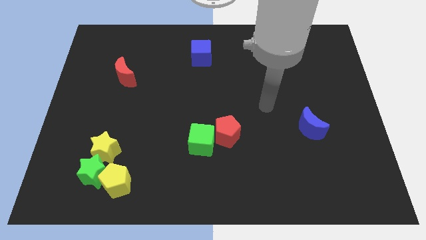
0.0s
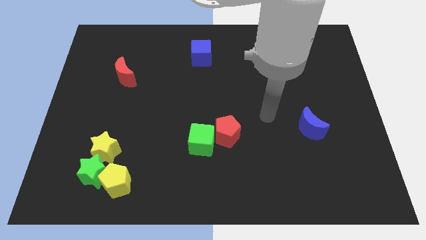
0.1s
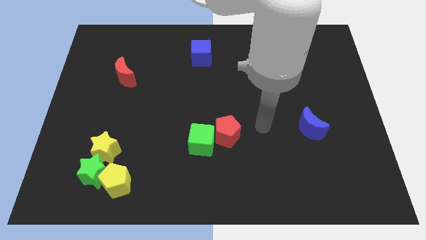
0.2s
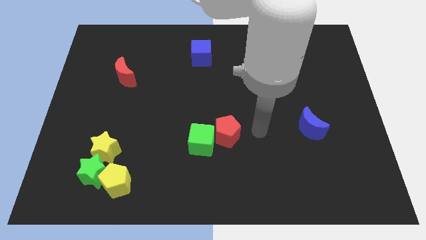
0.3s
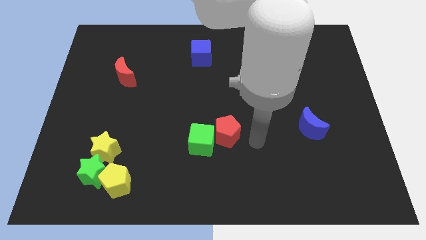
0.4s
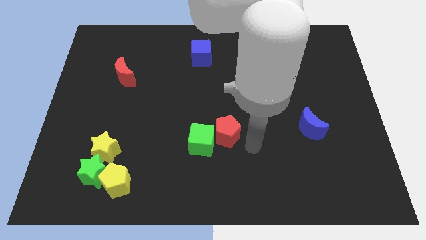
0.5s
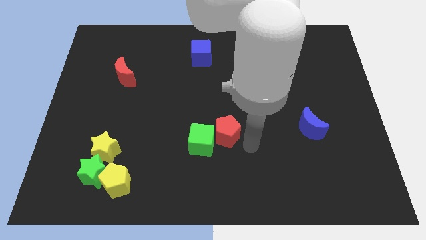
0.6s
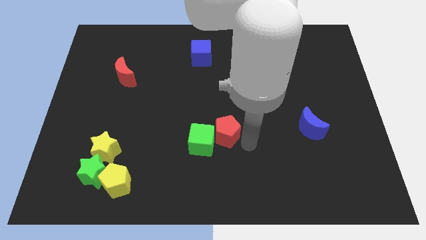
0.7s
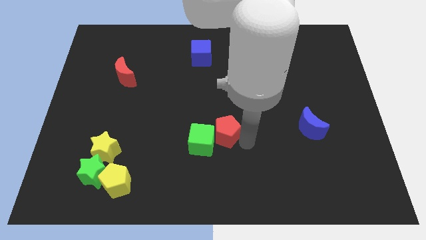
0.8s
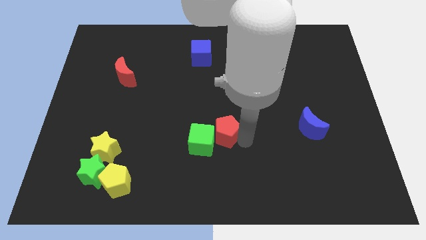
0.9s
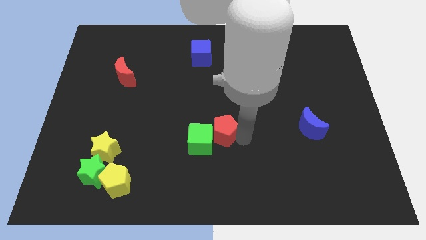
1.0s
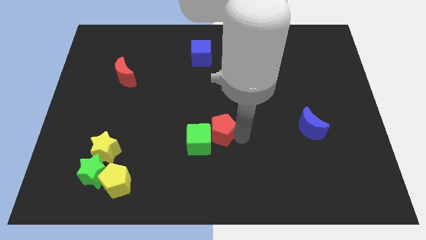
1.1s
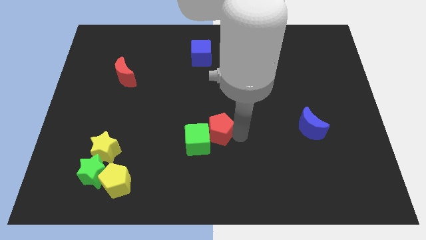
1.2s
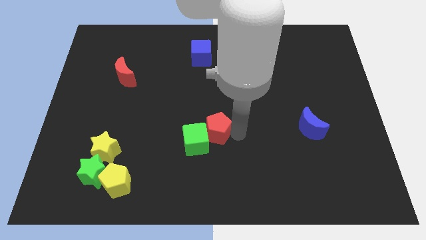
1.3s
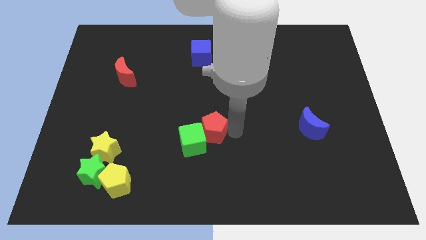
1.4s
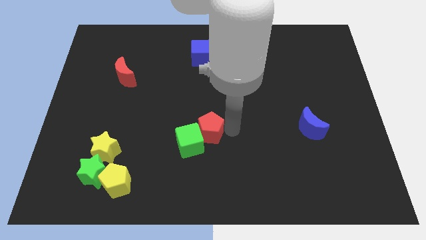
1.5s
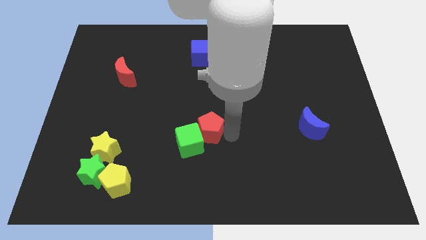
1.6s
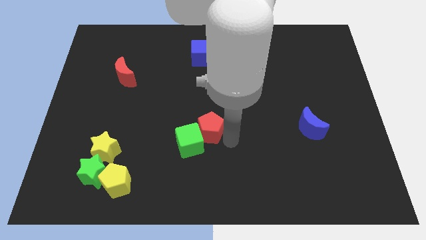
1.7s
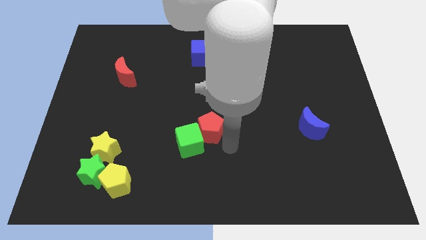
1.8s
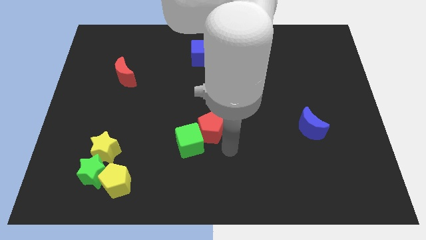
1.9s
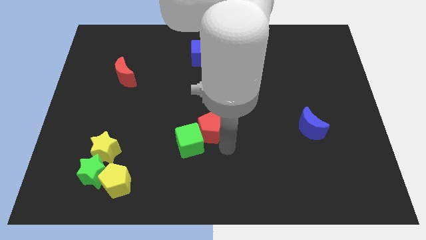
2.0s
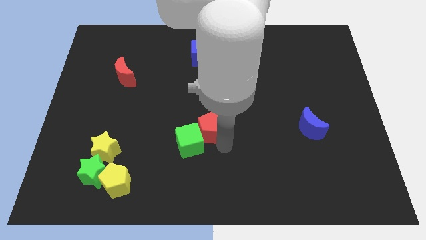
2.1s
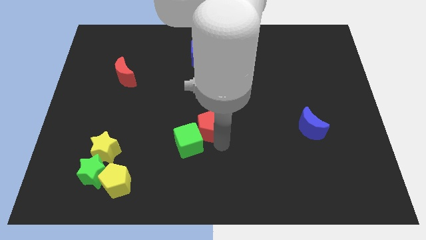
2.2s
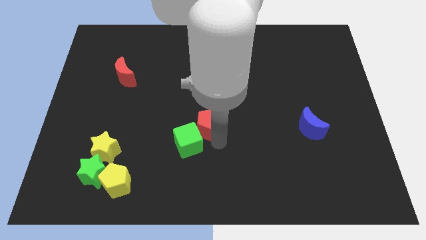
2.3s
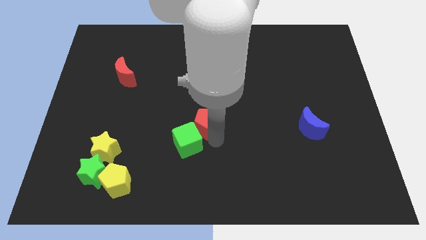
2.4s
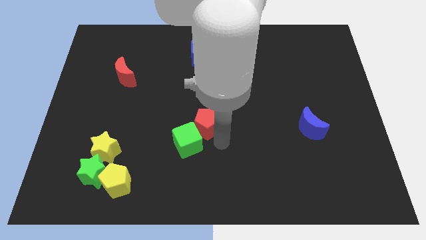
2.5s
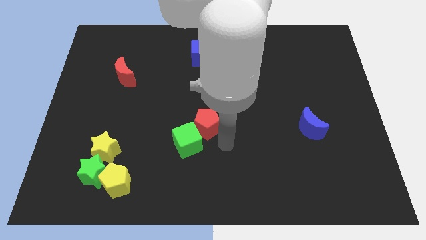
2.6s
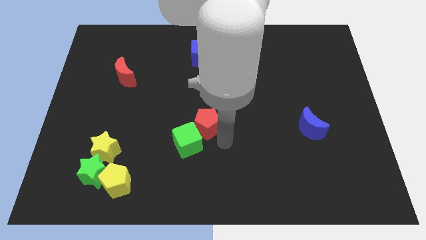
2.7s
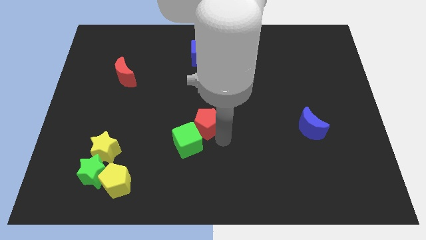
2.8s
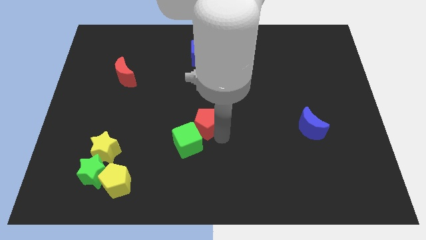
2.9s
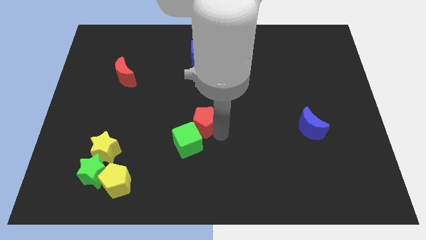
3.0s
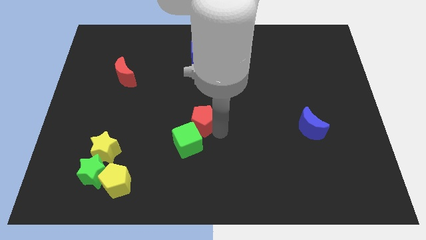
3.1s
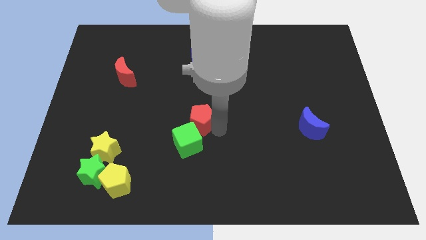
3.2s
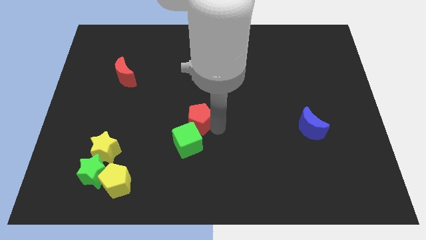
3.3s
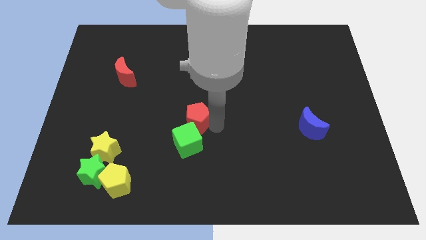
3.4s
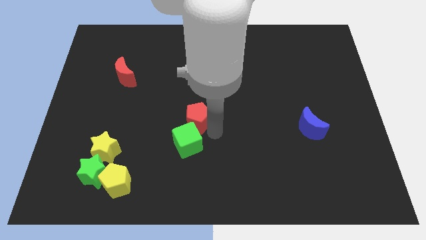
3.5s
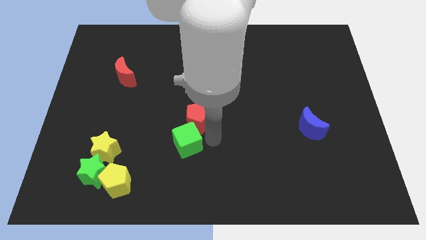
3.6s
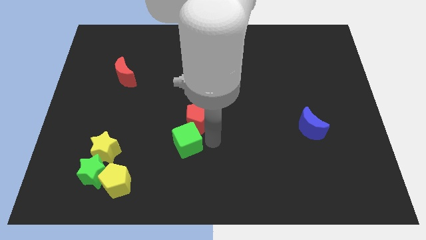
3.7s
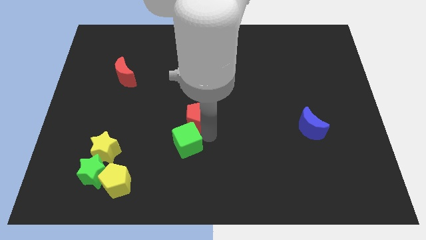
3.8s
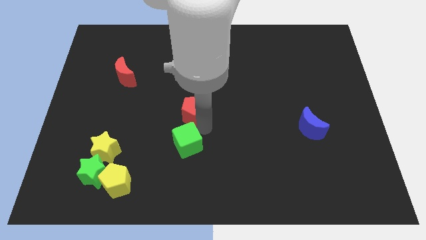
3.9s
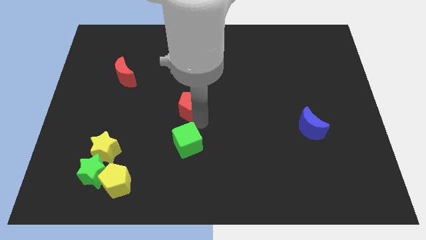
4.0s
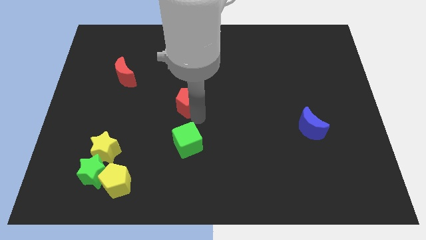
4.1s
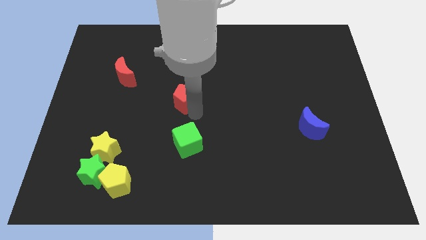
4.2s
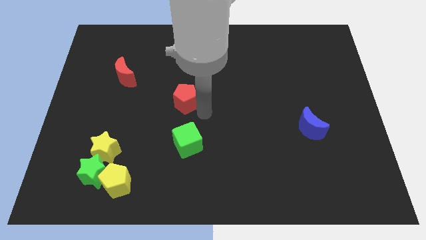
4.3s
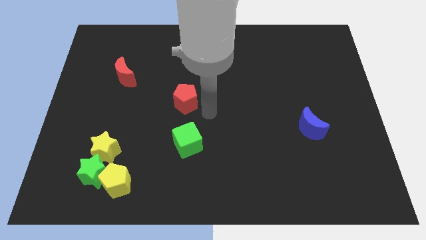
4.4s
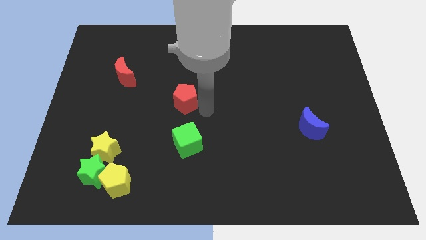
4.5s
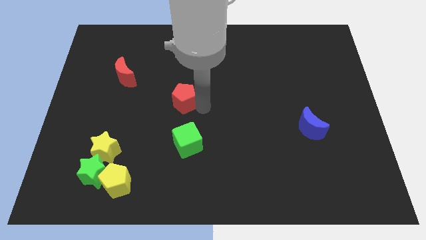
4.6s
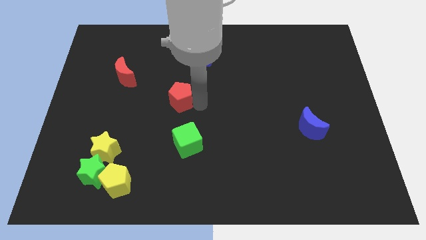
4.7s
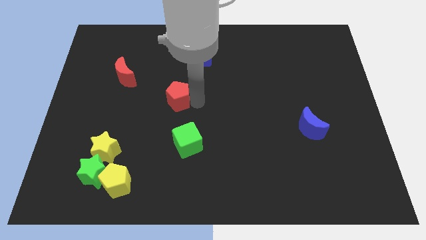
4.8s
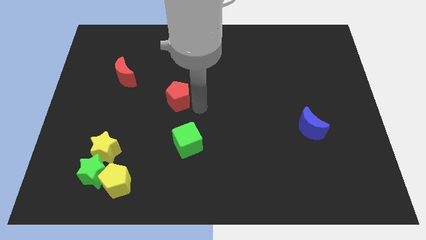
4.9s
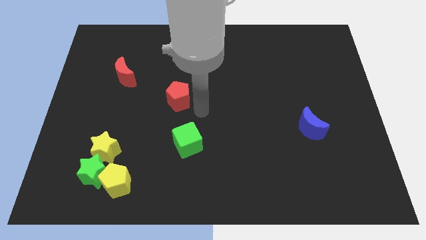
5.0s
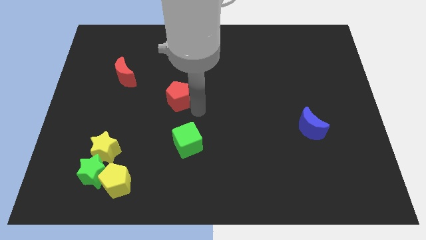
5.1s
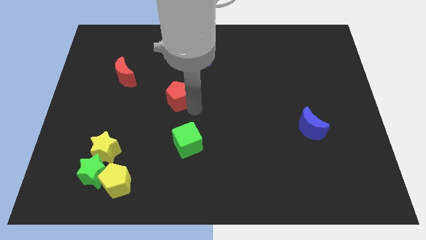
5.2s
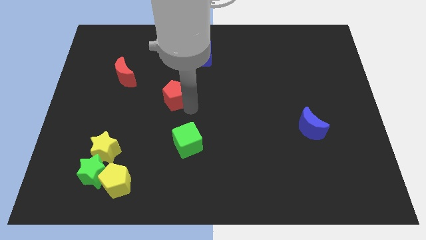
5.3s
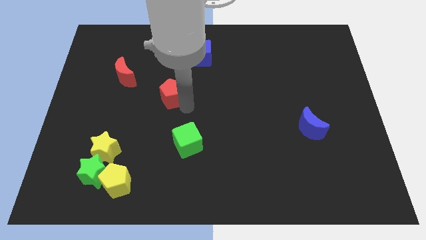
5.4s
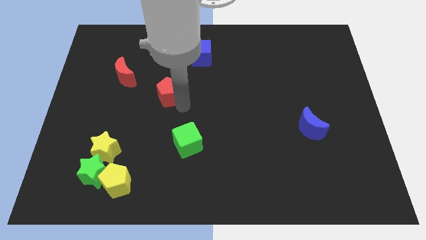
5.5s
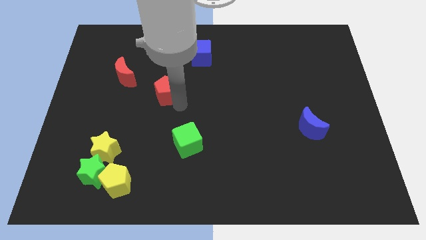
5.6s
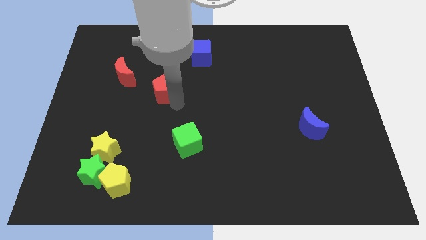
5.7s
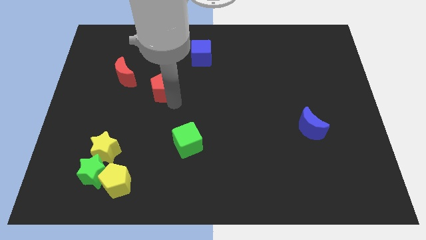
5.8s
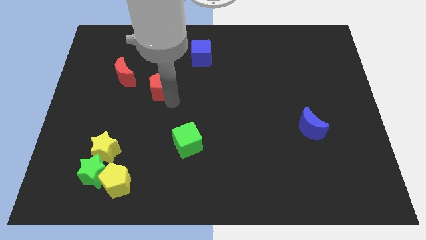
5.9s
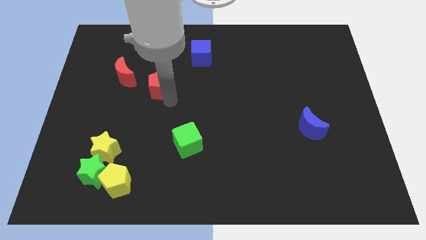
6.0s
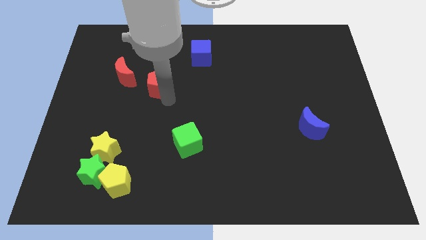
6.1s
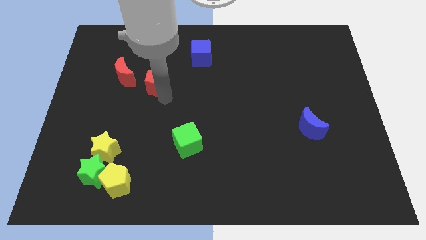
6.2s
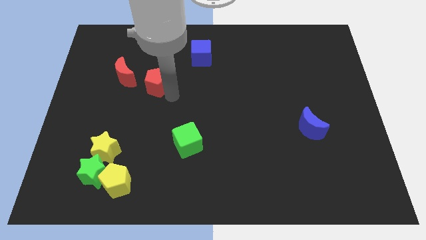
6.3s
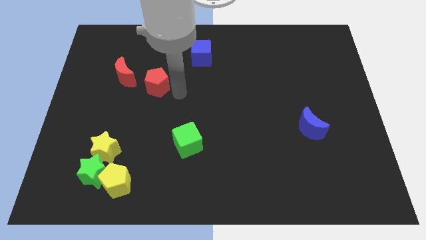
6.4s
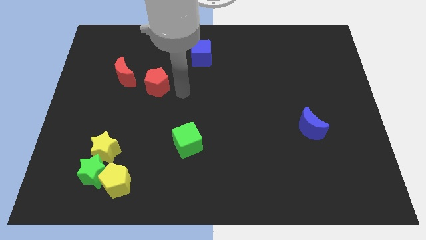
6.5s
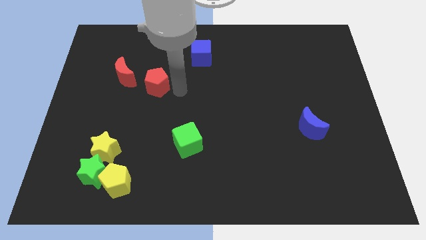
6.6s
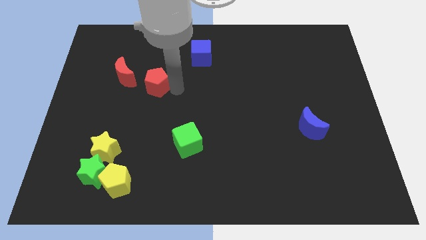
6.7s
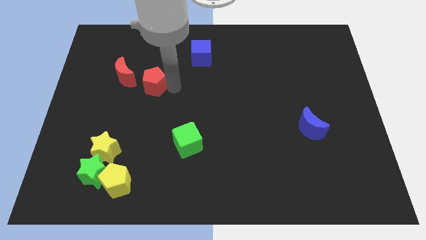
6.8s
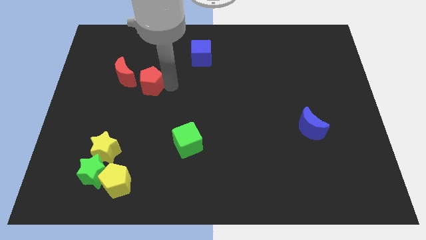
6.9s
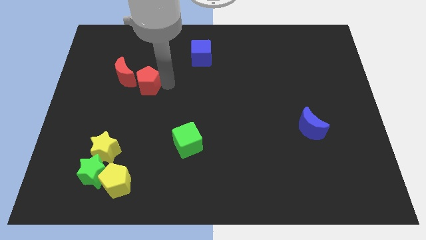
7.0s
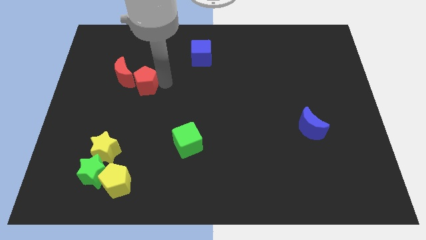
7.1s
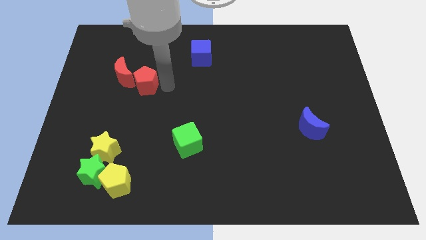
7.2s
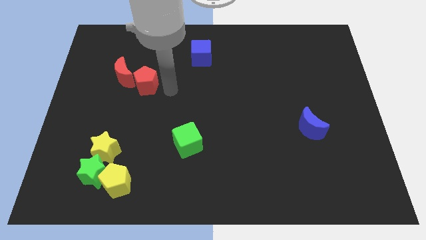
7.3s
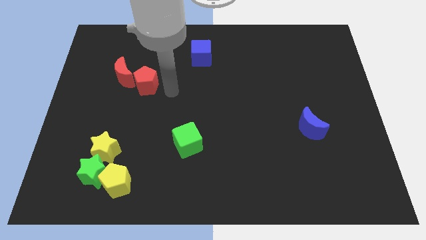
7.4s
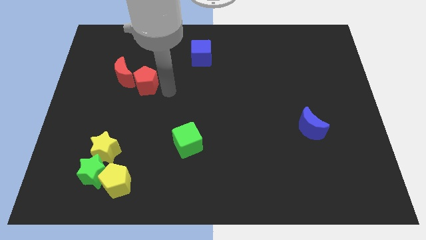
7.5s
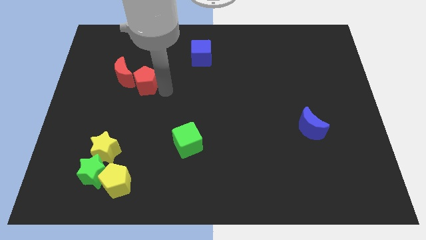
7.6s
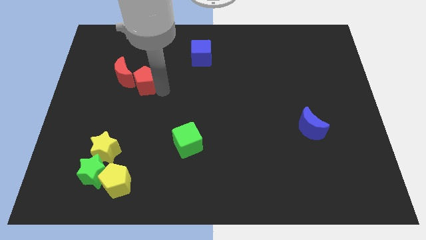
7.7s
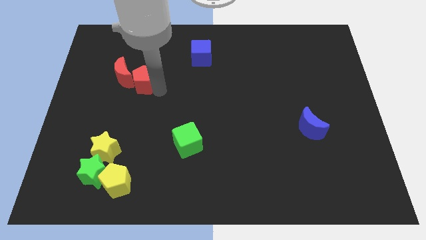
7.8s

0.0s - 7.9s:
move the red pentagon to the red moon
